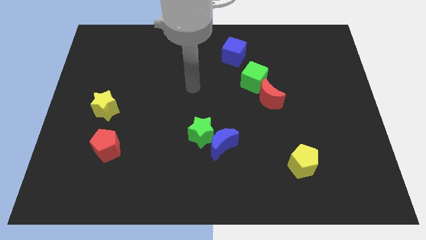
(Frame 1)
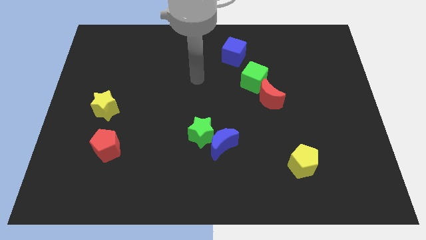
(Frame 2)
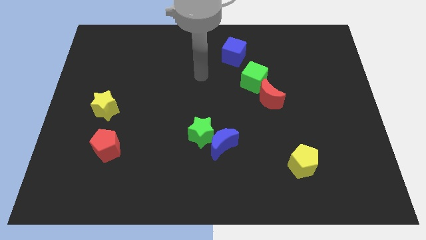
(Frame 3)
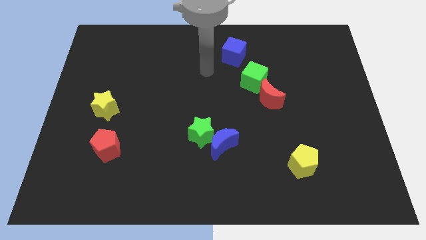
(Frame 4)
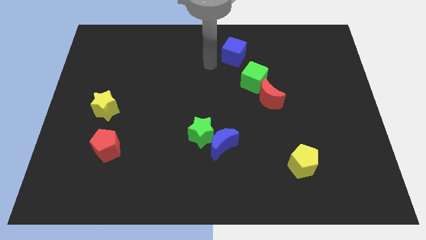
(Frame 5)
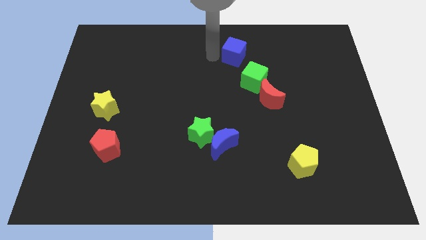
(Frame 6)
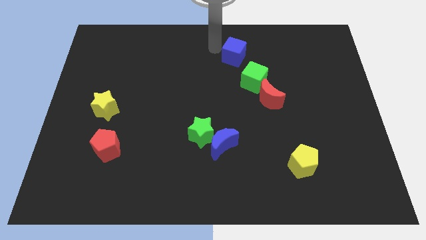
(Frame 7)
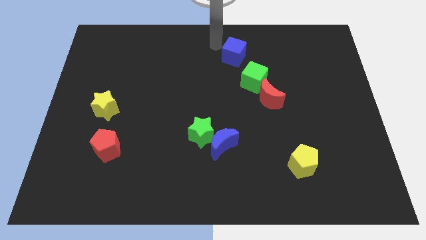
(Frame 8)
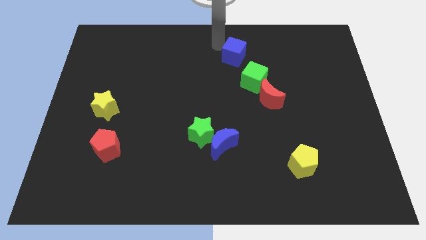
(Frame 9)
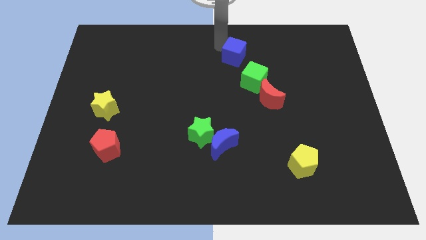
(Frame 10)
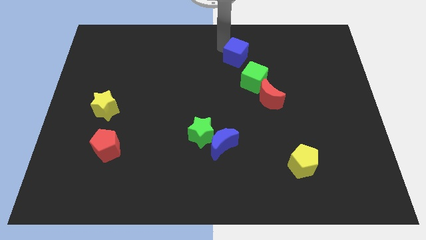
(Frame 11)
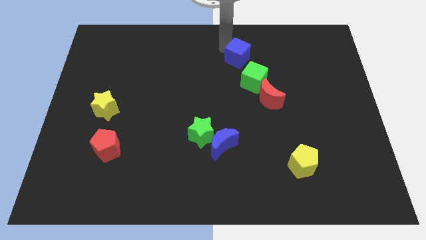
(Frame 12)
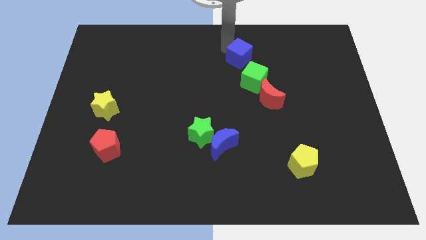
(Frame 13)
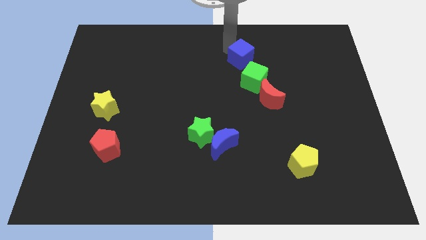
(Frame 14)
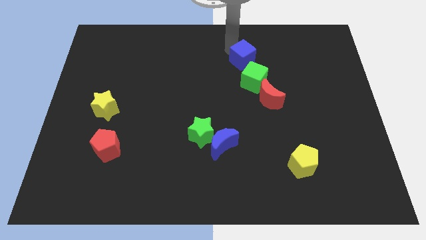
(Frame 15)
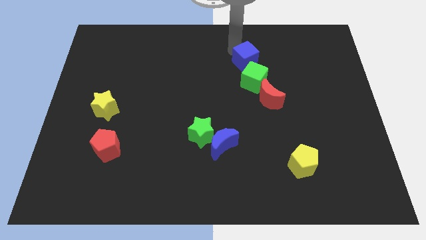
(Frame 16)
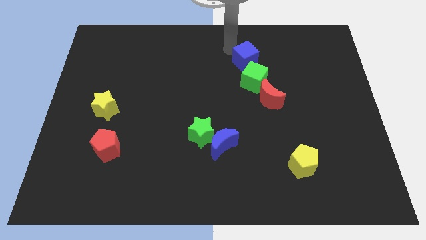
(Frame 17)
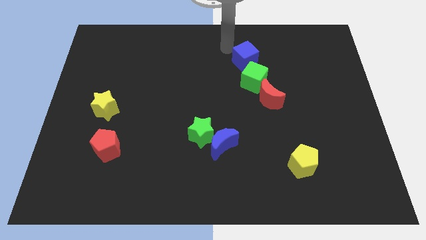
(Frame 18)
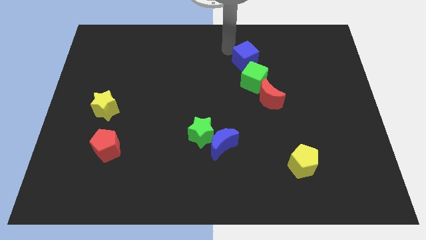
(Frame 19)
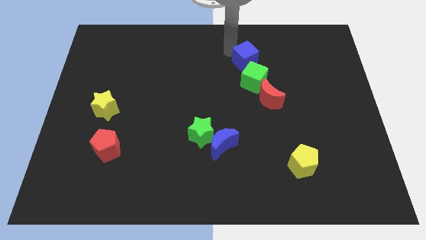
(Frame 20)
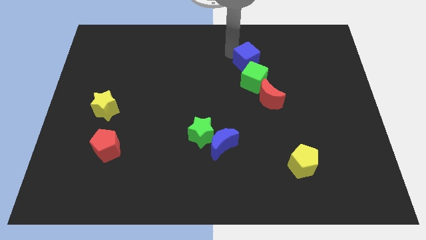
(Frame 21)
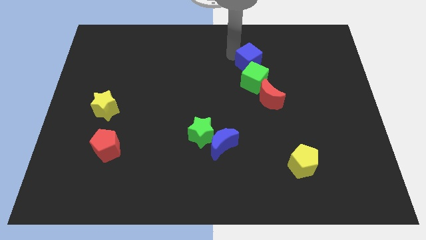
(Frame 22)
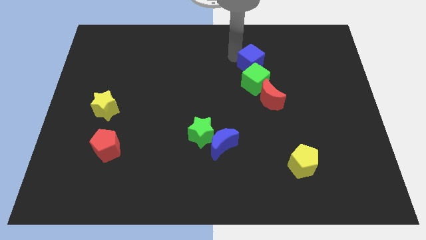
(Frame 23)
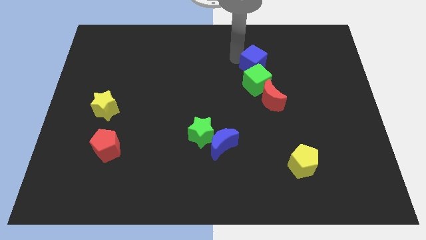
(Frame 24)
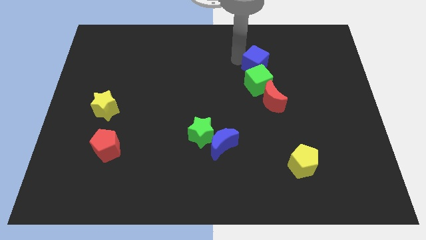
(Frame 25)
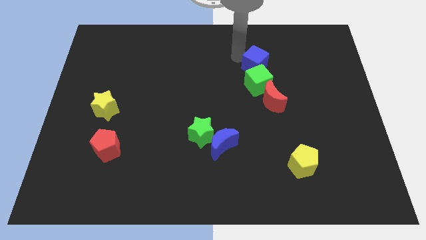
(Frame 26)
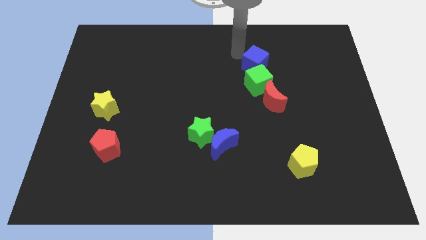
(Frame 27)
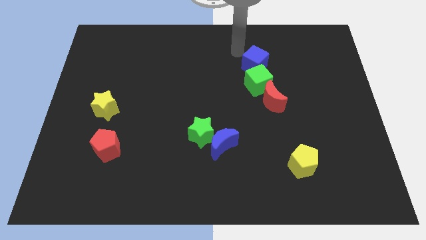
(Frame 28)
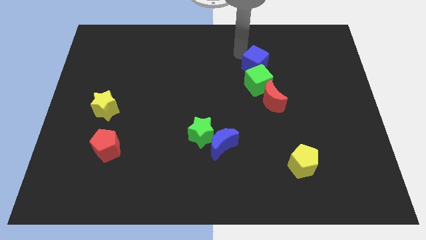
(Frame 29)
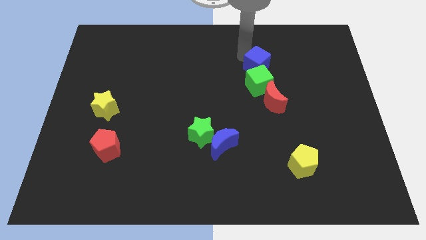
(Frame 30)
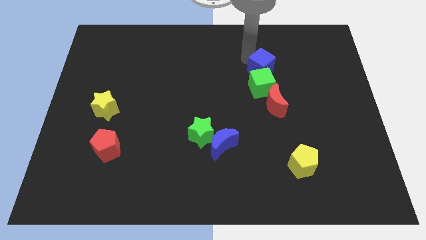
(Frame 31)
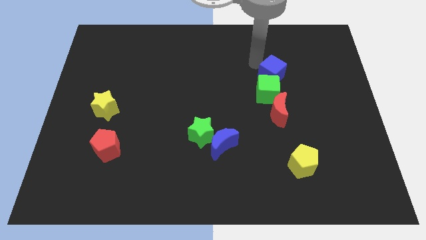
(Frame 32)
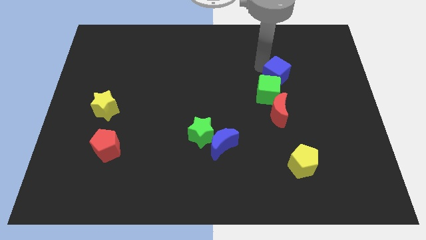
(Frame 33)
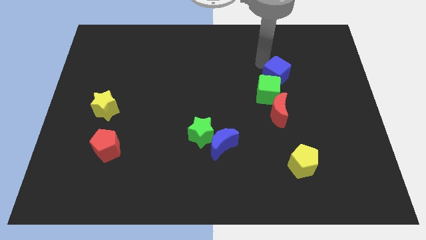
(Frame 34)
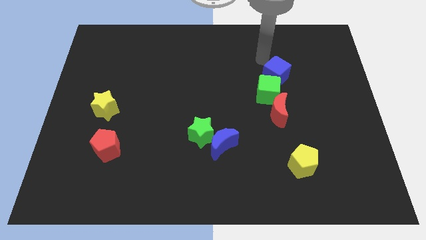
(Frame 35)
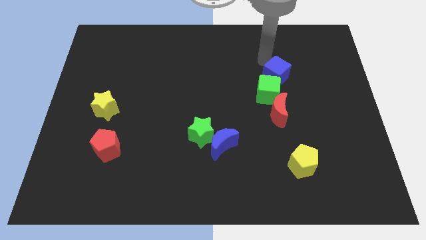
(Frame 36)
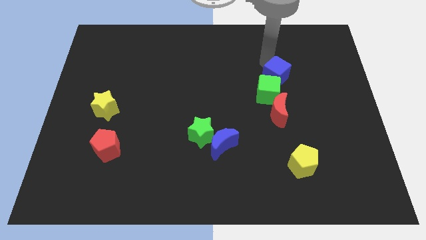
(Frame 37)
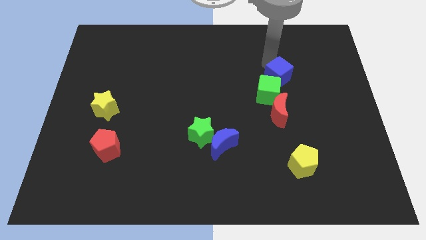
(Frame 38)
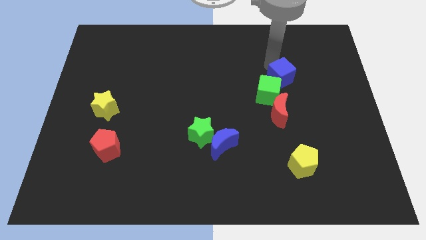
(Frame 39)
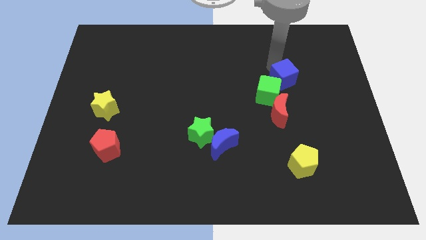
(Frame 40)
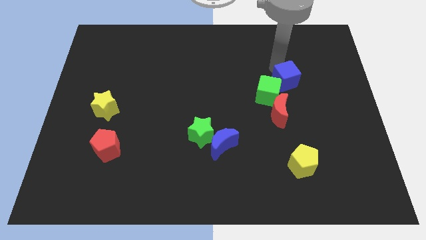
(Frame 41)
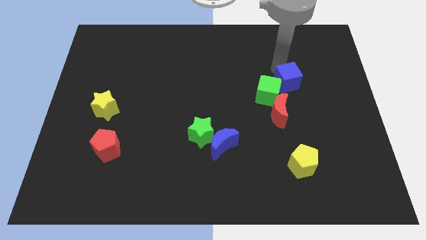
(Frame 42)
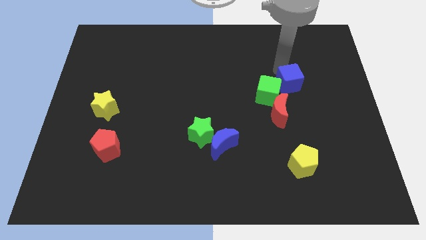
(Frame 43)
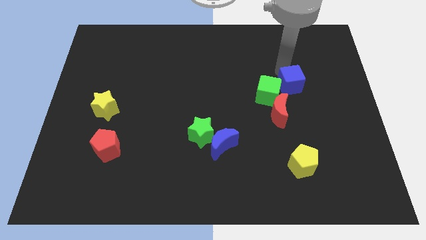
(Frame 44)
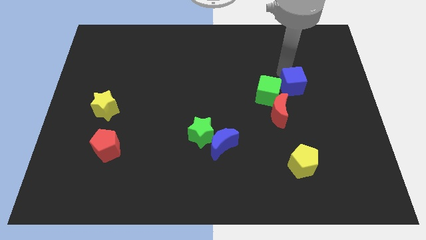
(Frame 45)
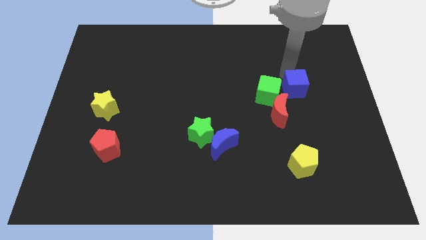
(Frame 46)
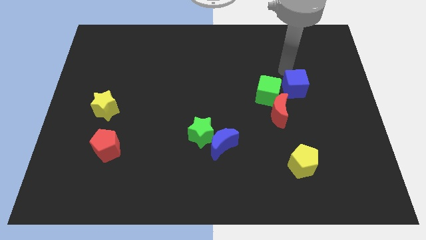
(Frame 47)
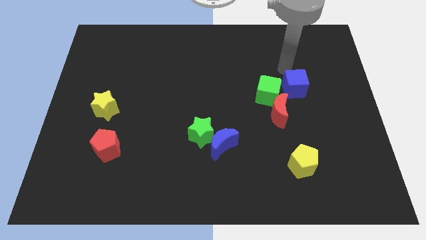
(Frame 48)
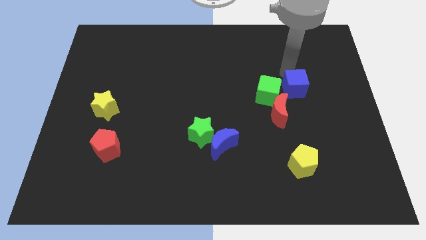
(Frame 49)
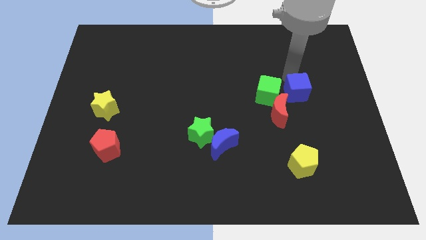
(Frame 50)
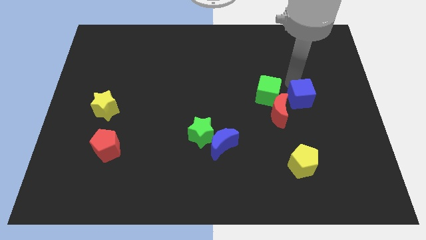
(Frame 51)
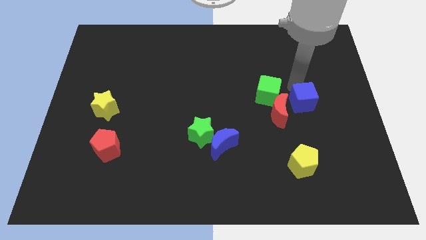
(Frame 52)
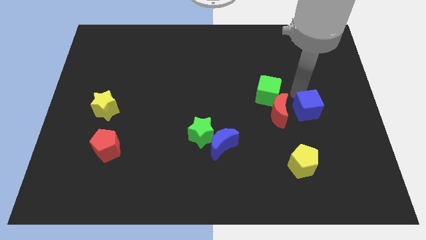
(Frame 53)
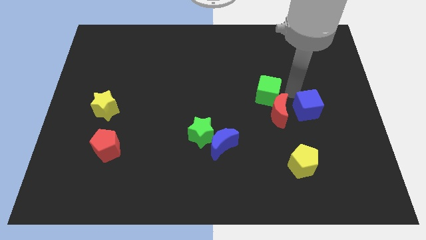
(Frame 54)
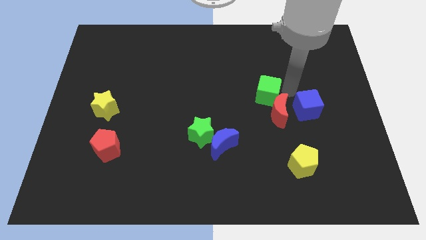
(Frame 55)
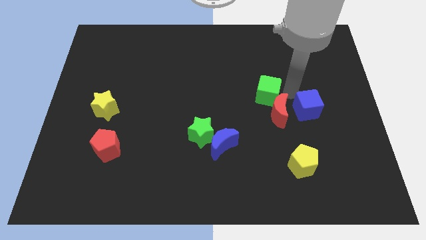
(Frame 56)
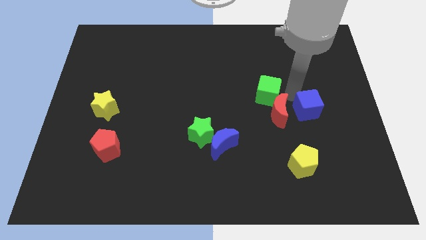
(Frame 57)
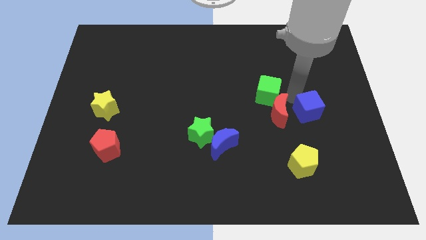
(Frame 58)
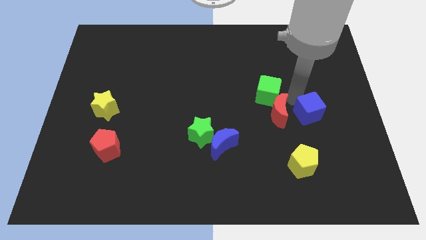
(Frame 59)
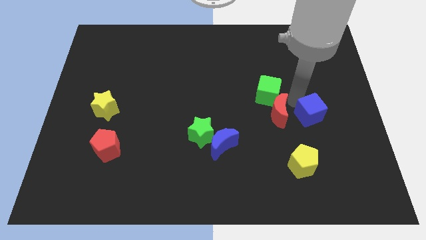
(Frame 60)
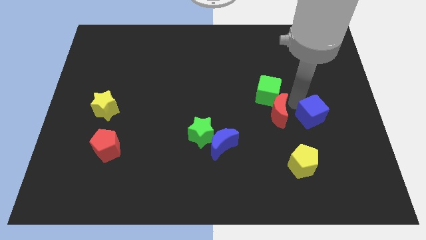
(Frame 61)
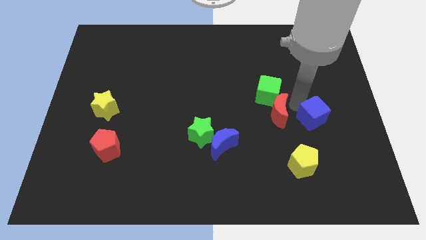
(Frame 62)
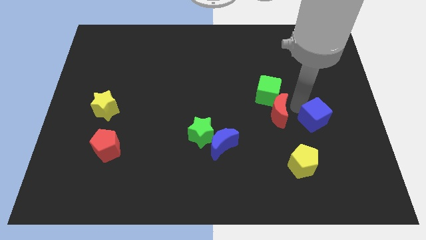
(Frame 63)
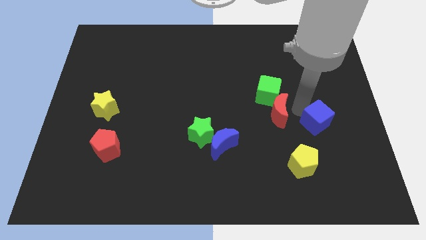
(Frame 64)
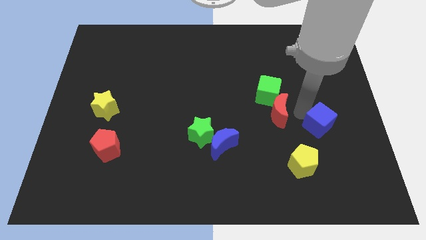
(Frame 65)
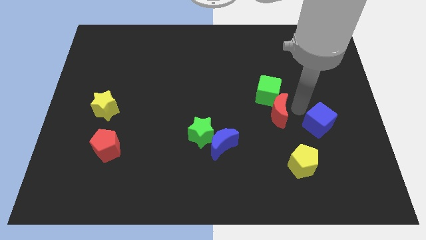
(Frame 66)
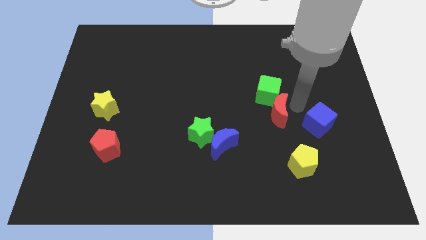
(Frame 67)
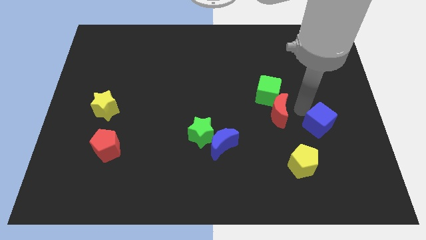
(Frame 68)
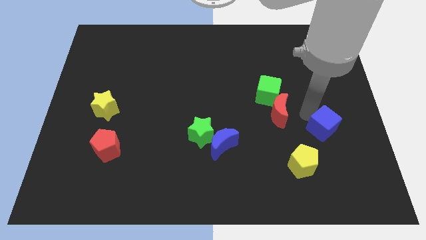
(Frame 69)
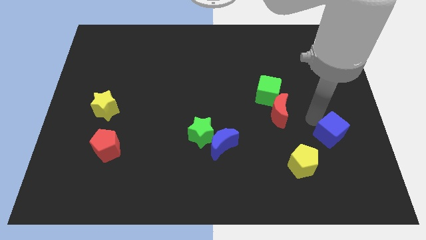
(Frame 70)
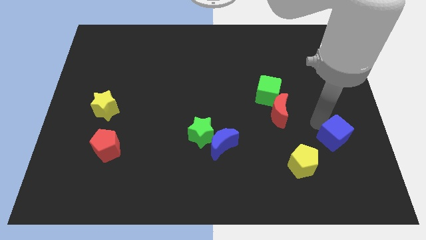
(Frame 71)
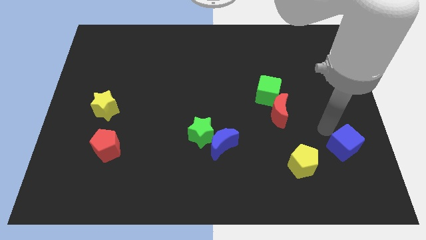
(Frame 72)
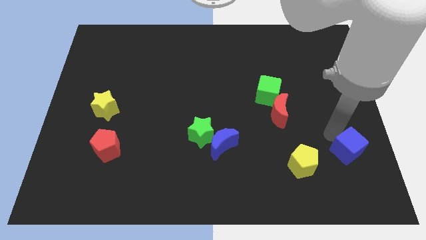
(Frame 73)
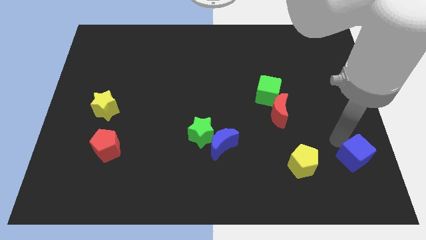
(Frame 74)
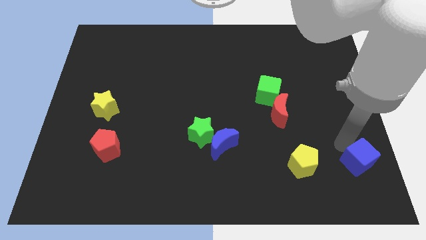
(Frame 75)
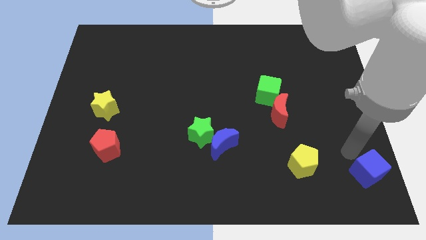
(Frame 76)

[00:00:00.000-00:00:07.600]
slide the blue cube to the bottom right
